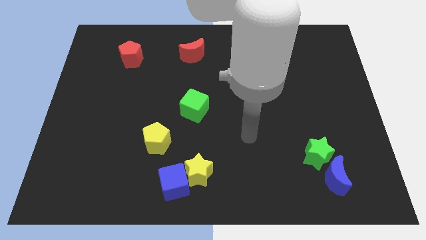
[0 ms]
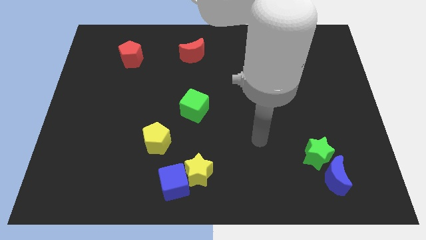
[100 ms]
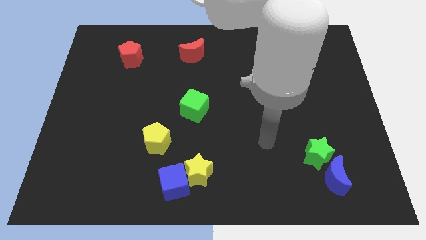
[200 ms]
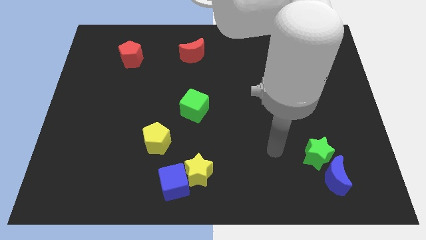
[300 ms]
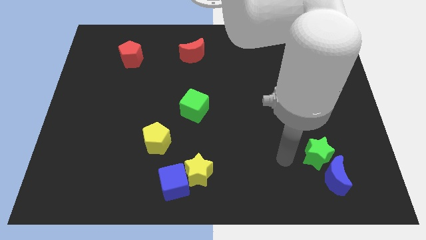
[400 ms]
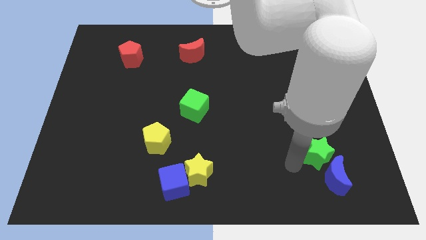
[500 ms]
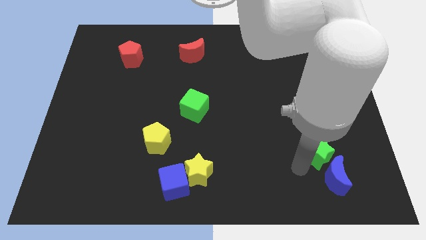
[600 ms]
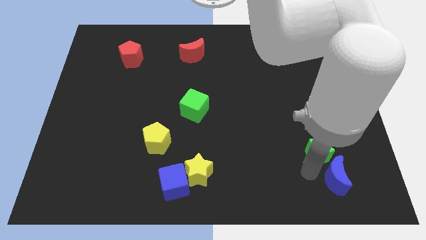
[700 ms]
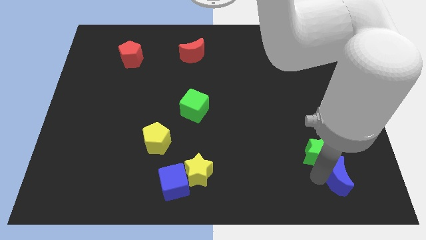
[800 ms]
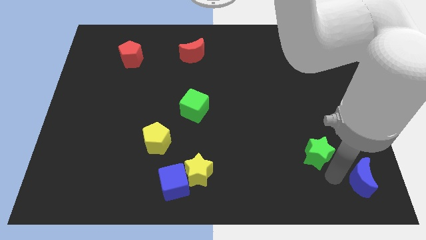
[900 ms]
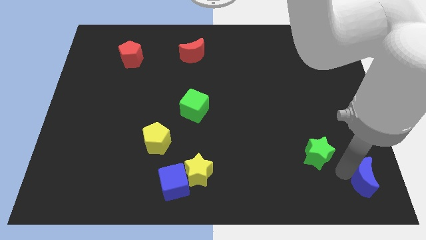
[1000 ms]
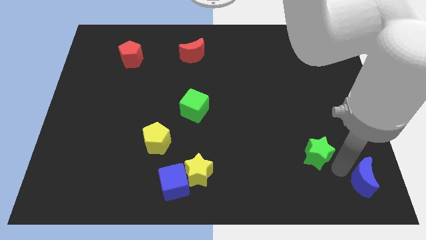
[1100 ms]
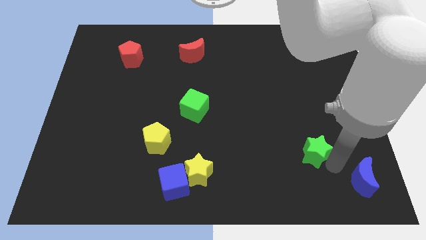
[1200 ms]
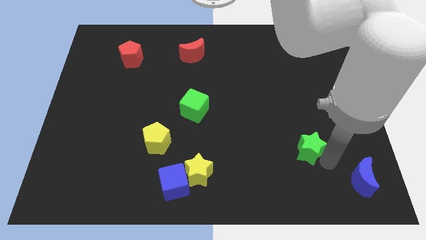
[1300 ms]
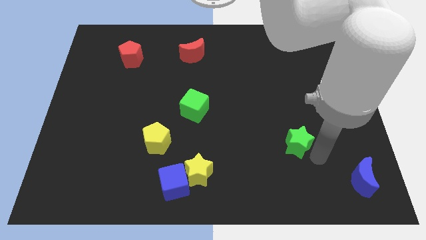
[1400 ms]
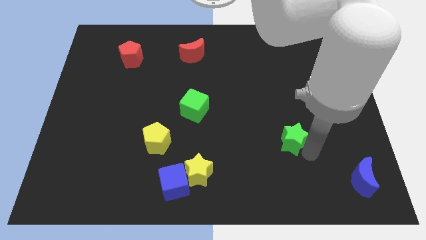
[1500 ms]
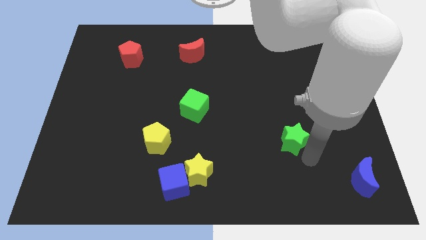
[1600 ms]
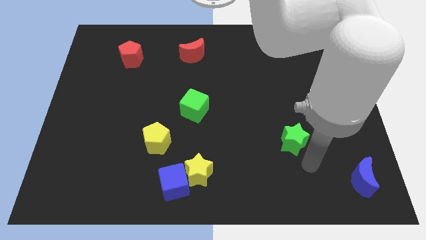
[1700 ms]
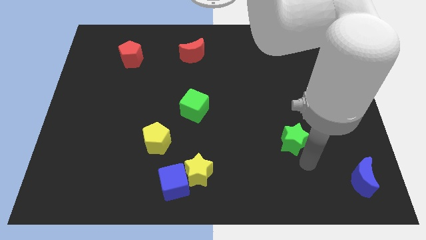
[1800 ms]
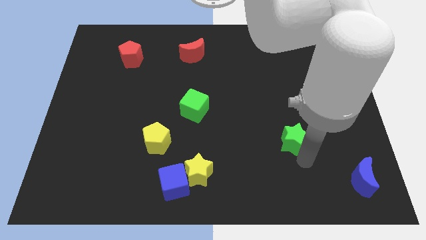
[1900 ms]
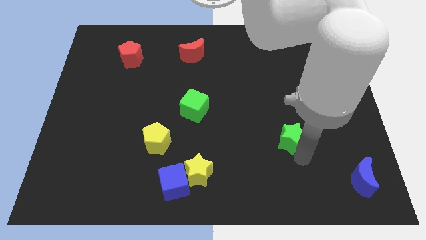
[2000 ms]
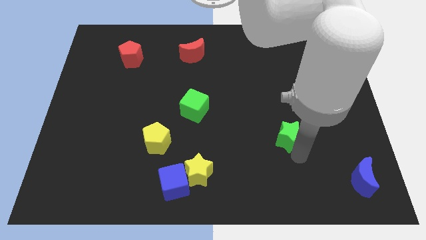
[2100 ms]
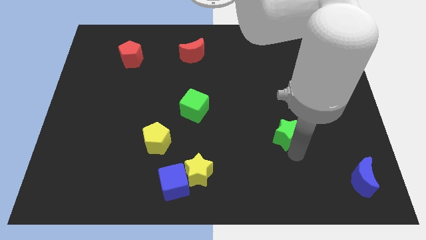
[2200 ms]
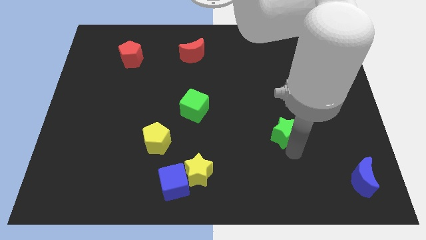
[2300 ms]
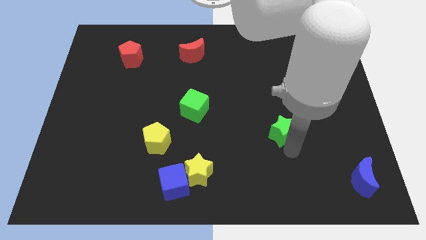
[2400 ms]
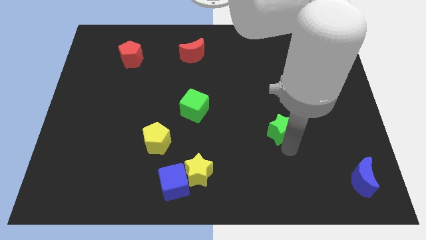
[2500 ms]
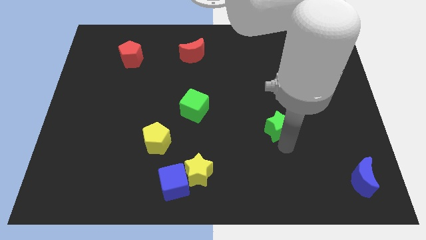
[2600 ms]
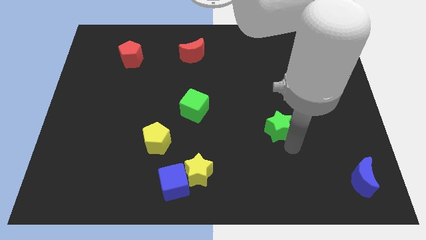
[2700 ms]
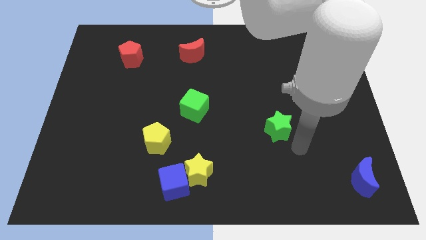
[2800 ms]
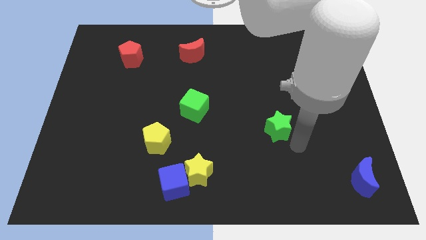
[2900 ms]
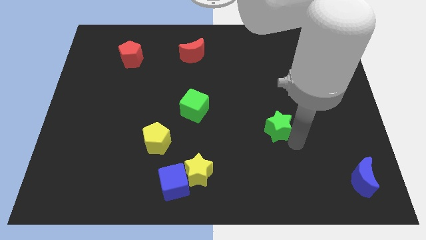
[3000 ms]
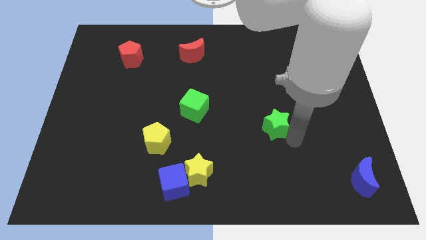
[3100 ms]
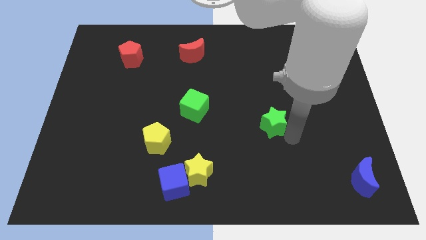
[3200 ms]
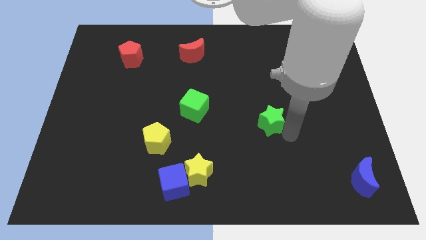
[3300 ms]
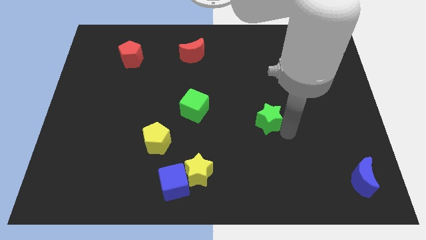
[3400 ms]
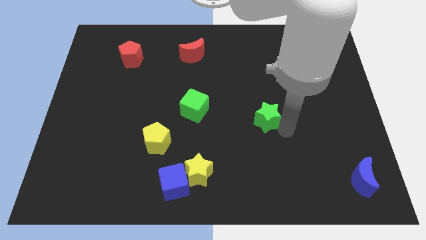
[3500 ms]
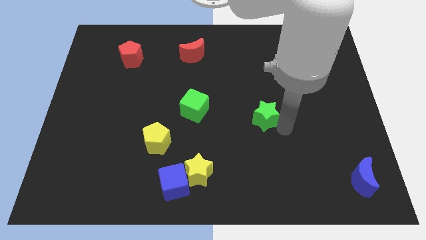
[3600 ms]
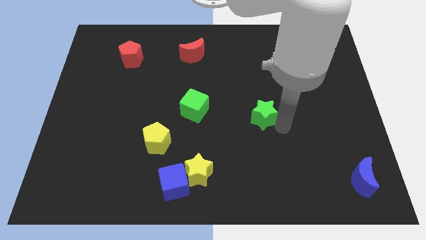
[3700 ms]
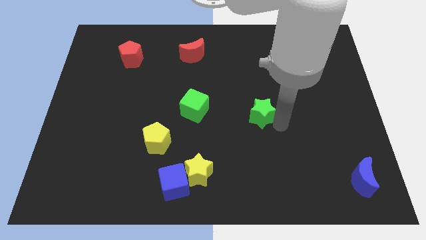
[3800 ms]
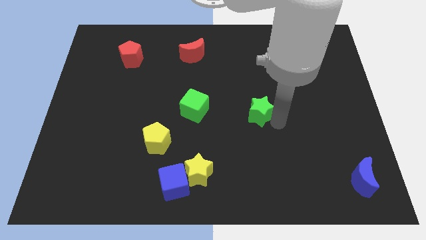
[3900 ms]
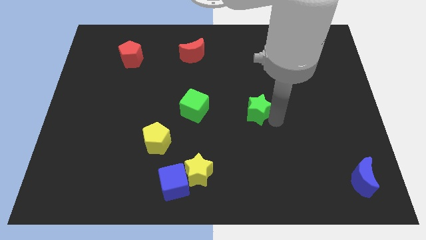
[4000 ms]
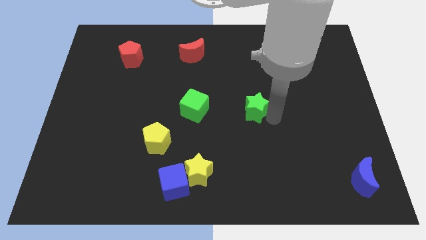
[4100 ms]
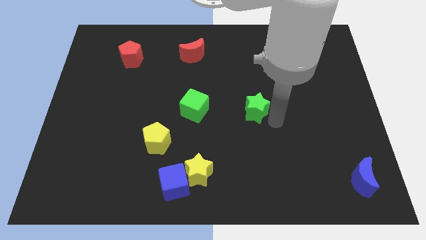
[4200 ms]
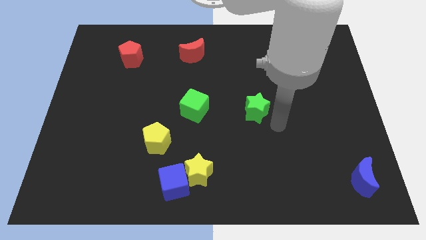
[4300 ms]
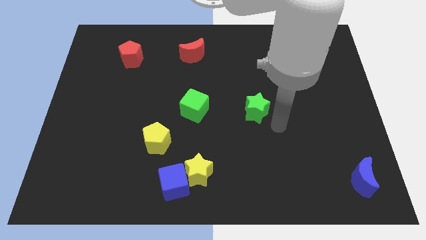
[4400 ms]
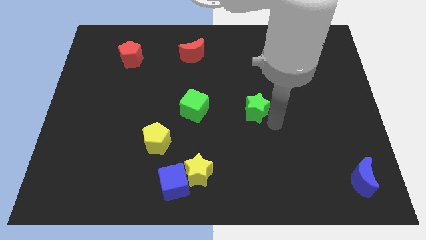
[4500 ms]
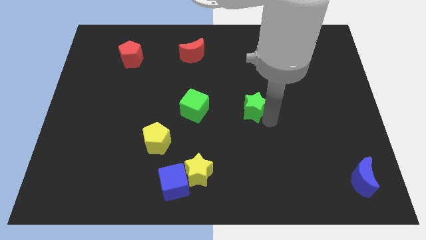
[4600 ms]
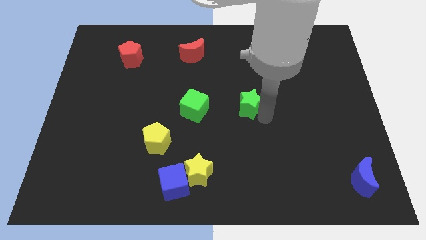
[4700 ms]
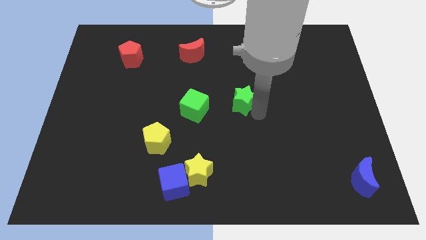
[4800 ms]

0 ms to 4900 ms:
slide the green star upwards and to the left diagonally

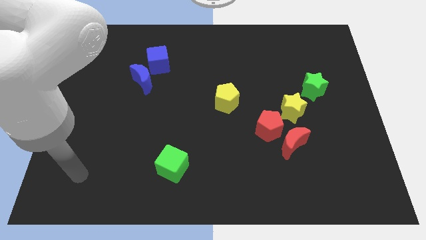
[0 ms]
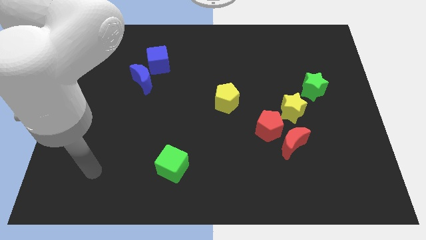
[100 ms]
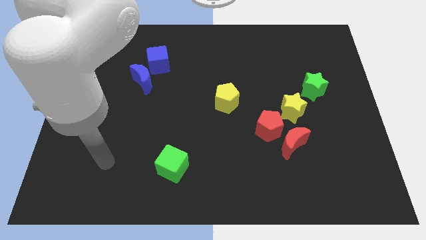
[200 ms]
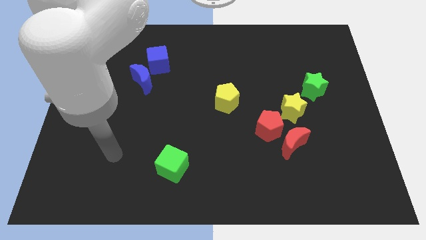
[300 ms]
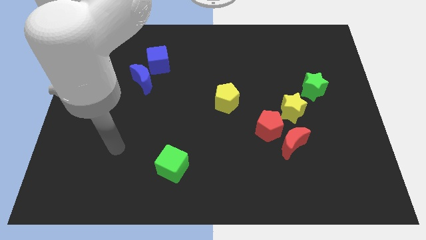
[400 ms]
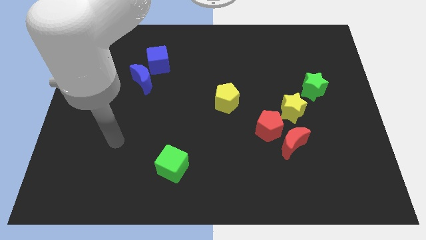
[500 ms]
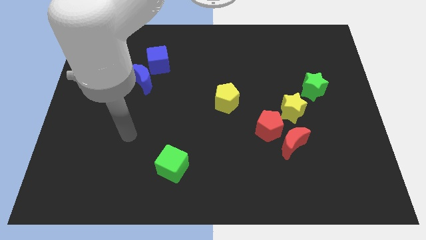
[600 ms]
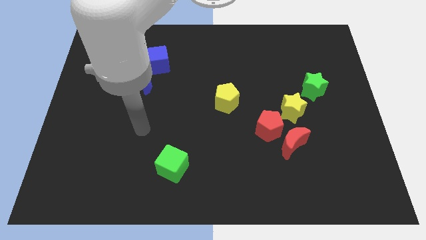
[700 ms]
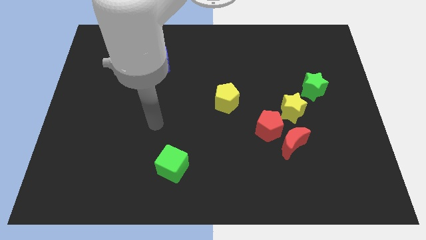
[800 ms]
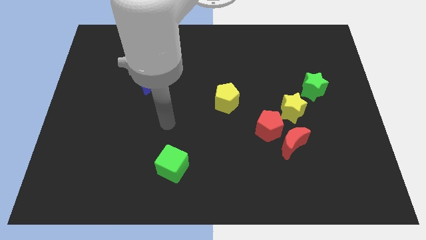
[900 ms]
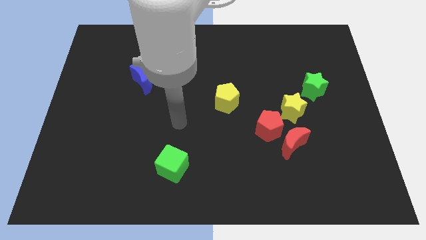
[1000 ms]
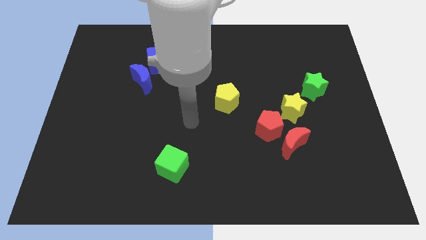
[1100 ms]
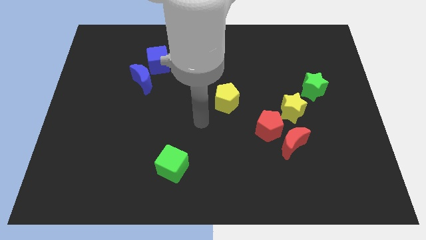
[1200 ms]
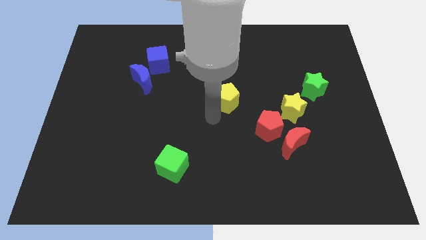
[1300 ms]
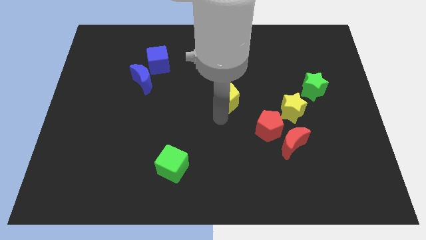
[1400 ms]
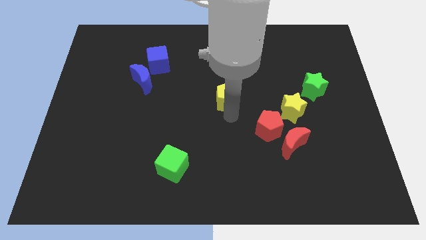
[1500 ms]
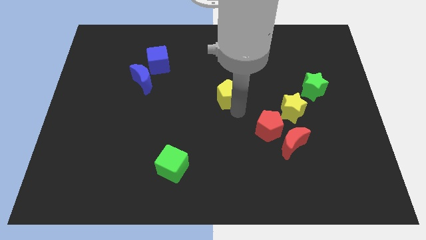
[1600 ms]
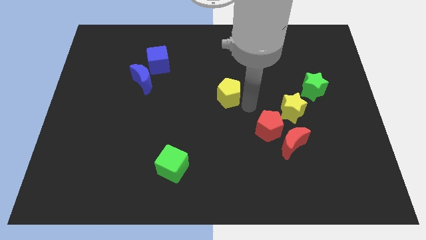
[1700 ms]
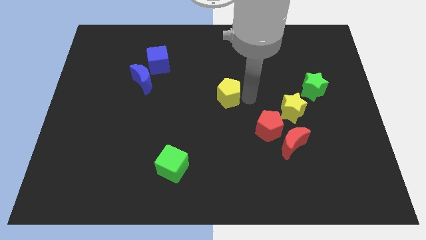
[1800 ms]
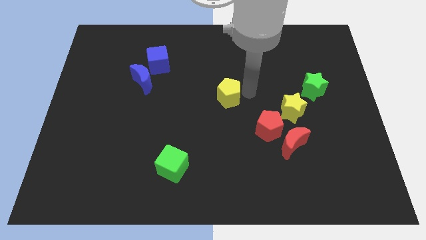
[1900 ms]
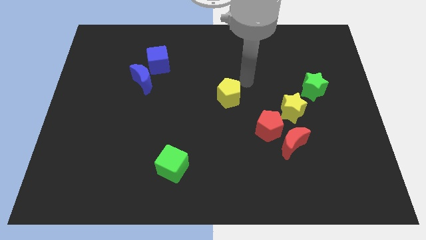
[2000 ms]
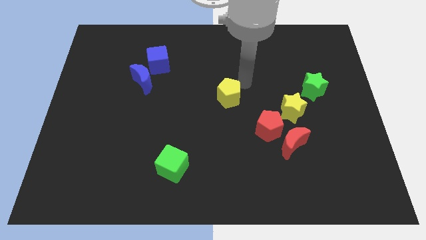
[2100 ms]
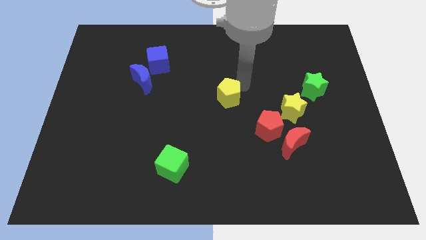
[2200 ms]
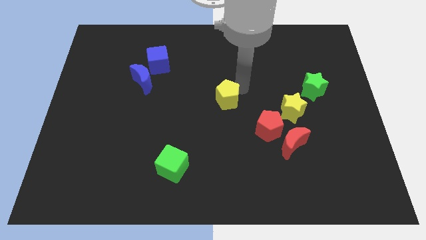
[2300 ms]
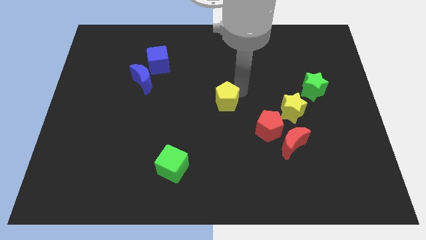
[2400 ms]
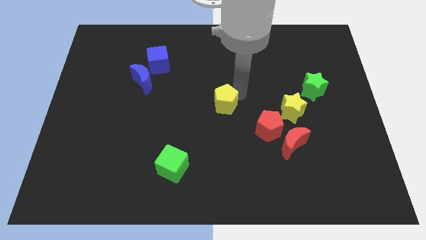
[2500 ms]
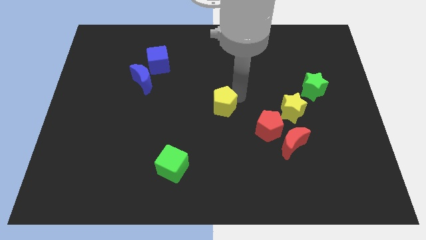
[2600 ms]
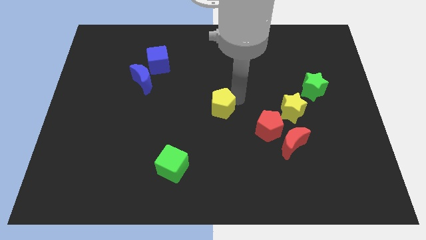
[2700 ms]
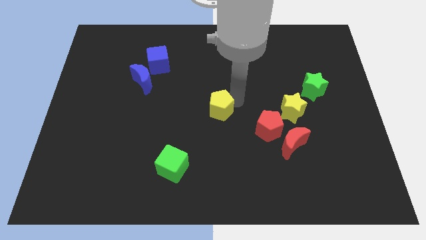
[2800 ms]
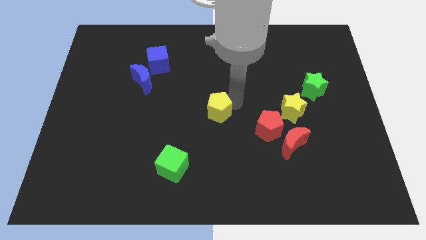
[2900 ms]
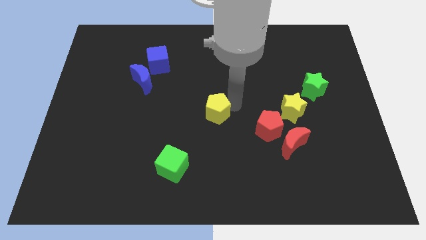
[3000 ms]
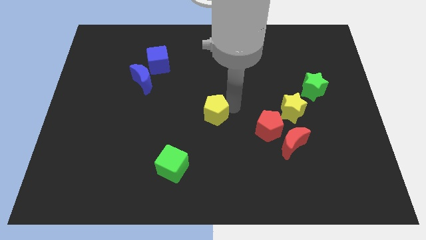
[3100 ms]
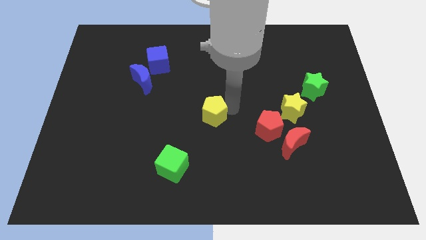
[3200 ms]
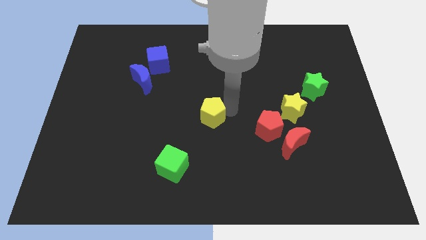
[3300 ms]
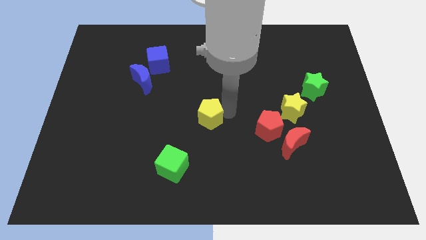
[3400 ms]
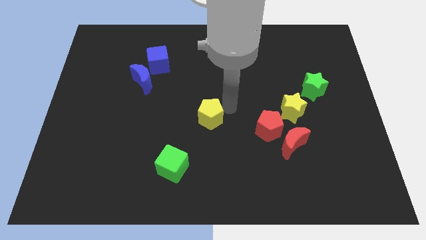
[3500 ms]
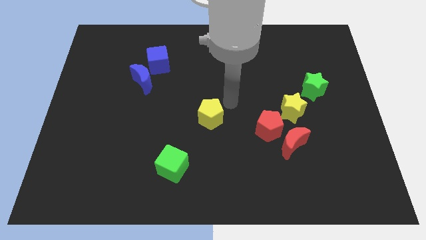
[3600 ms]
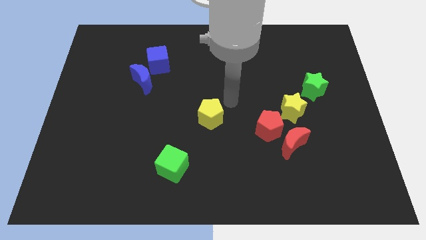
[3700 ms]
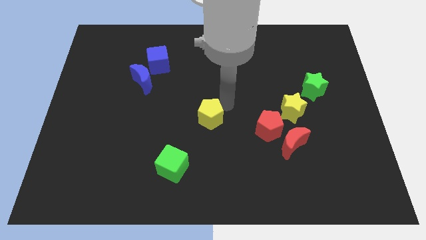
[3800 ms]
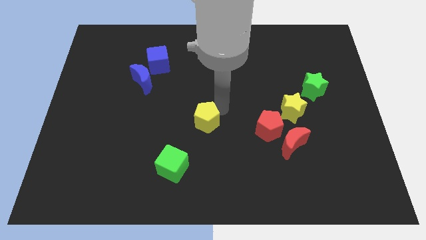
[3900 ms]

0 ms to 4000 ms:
slide the yellow pentagon slightly down and left
